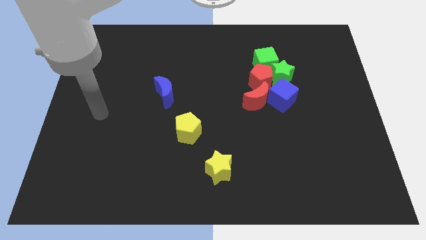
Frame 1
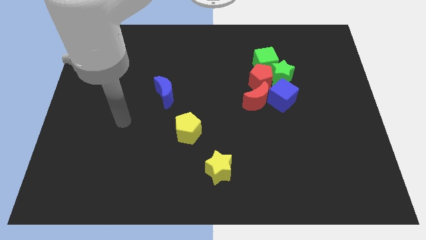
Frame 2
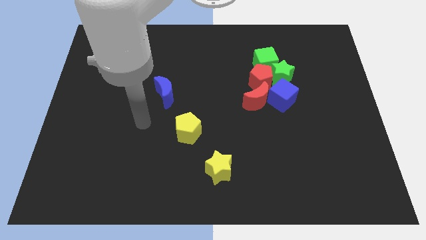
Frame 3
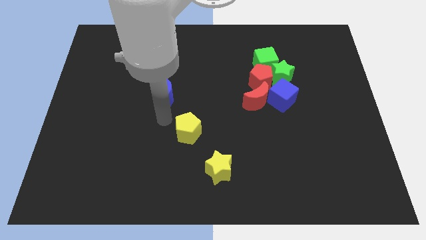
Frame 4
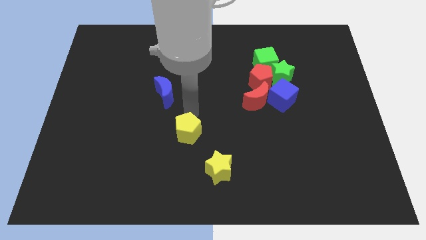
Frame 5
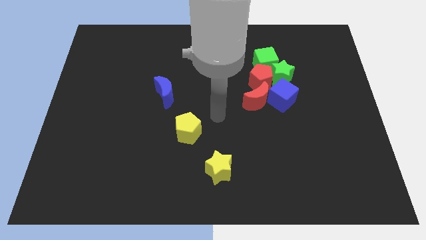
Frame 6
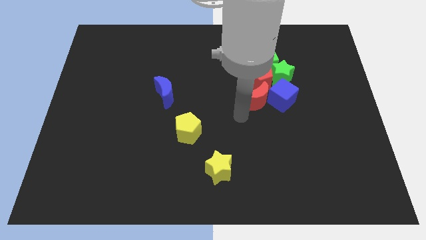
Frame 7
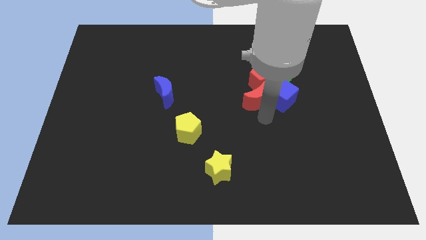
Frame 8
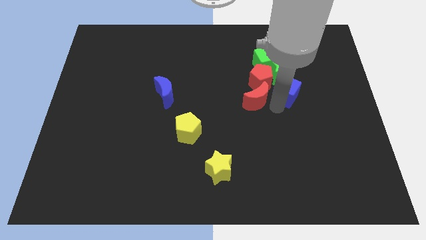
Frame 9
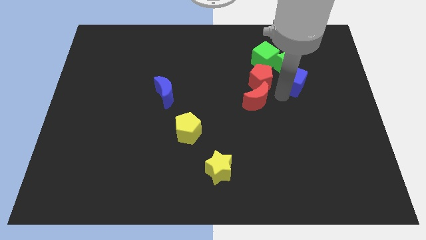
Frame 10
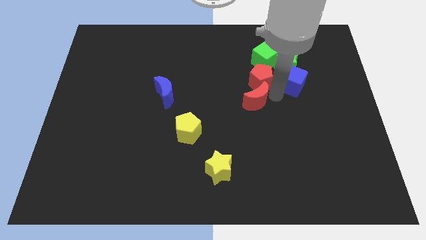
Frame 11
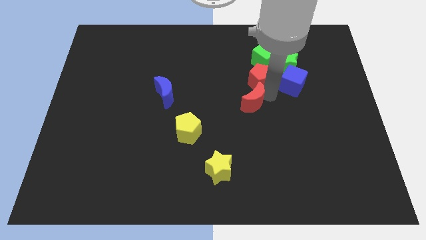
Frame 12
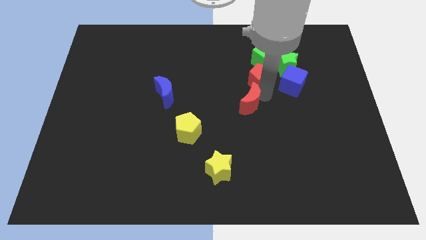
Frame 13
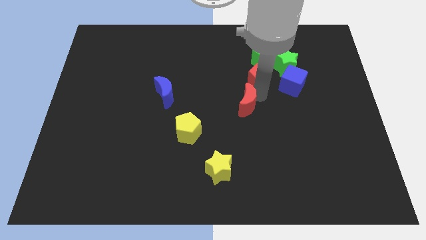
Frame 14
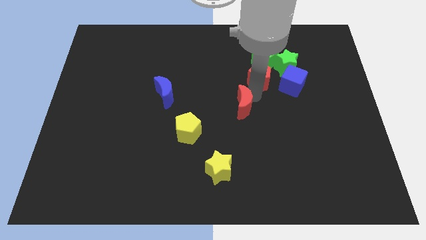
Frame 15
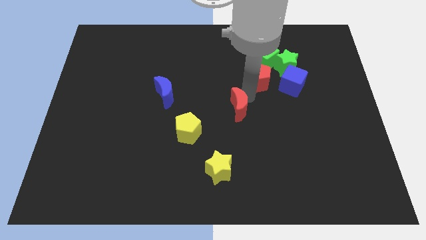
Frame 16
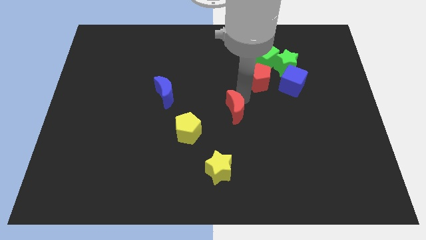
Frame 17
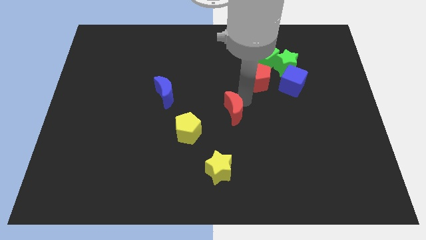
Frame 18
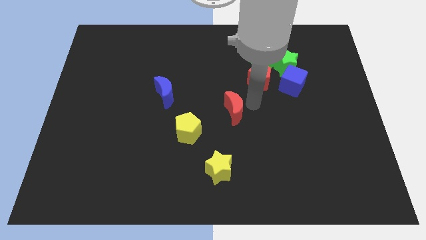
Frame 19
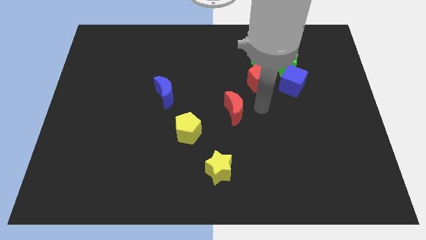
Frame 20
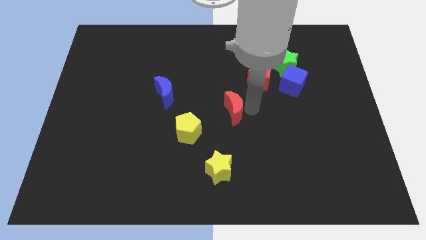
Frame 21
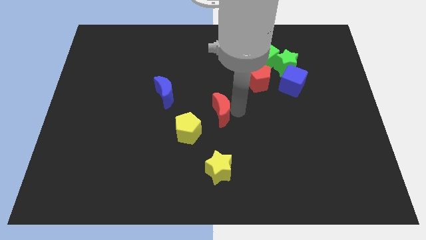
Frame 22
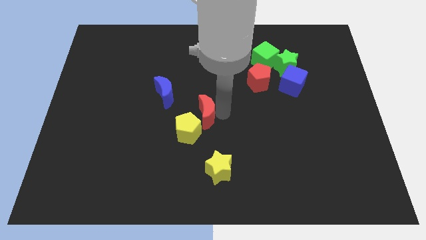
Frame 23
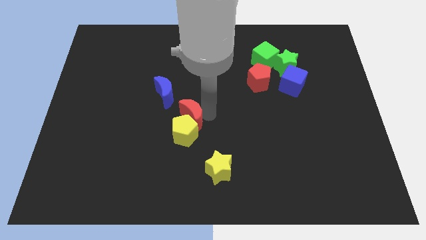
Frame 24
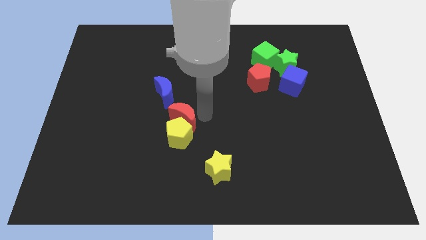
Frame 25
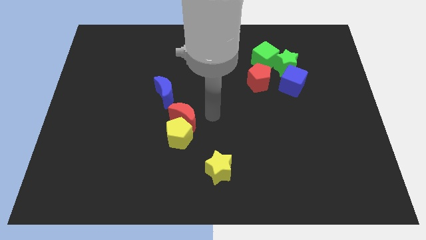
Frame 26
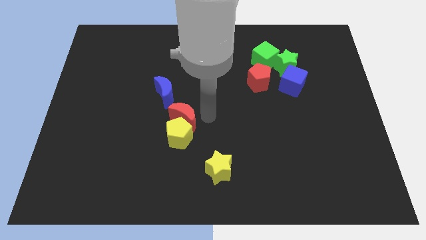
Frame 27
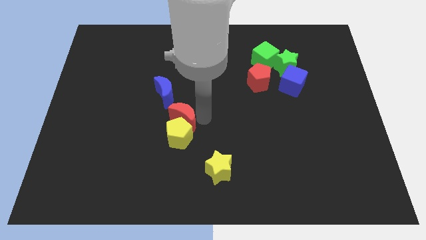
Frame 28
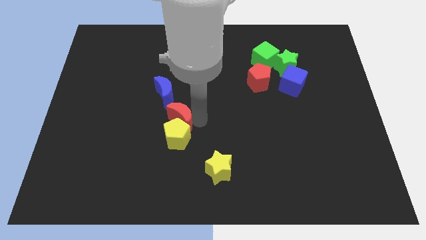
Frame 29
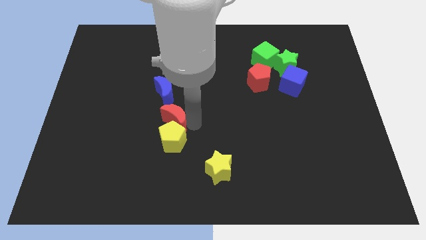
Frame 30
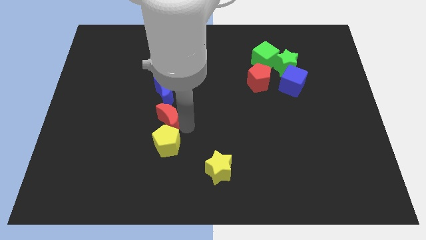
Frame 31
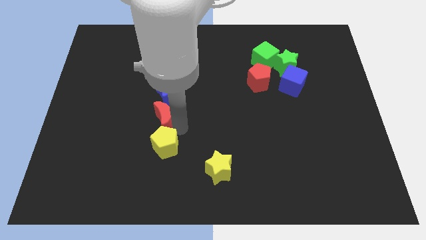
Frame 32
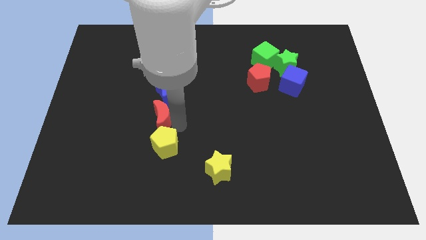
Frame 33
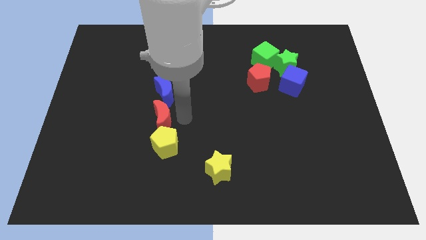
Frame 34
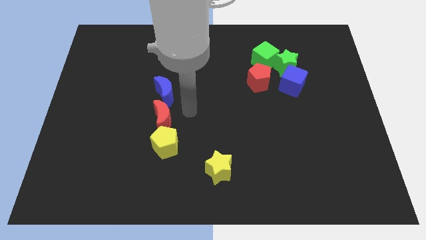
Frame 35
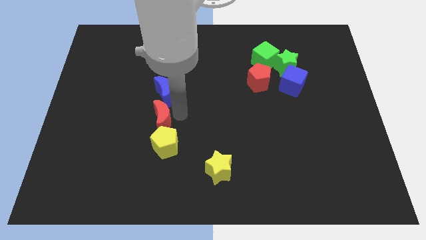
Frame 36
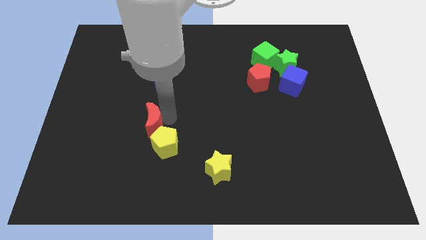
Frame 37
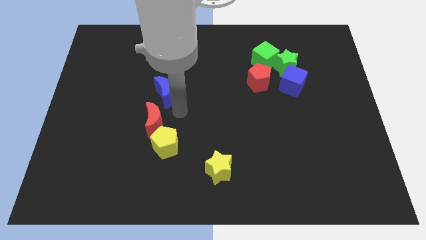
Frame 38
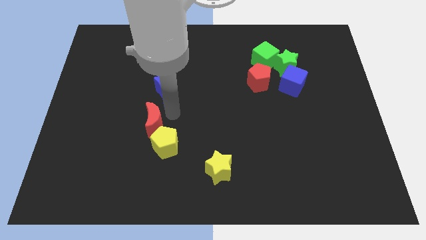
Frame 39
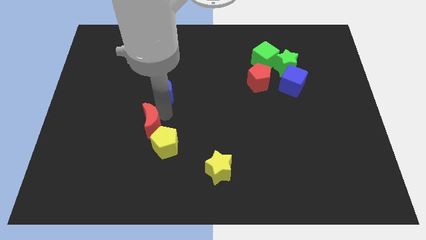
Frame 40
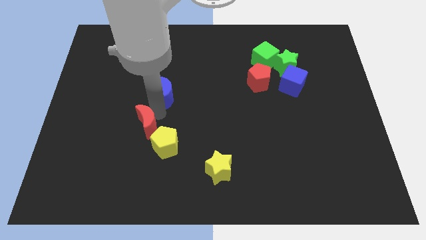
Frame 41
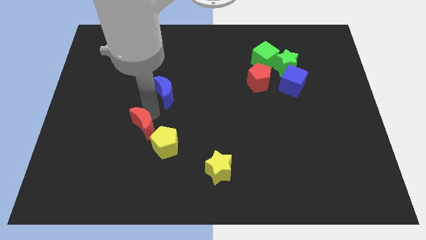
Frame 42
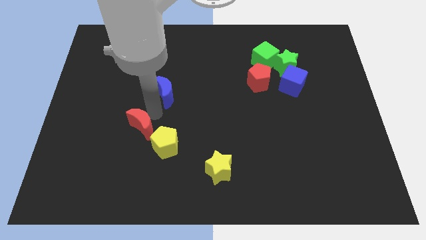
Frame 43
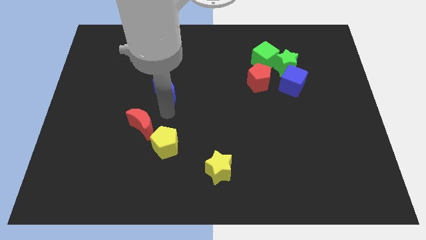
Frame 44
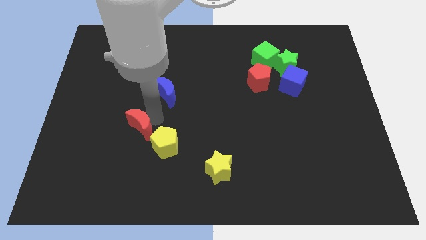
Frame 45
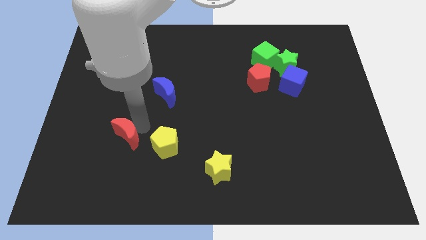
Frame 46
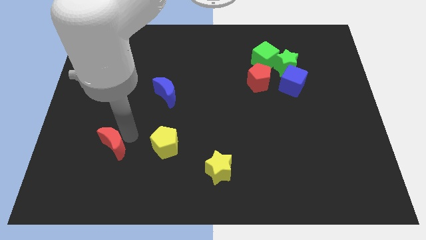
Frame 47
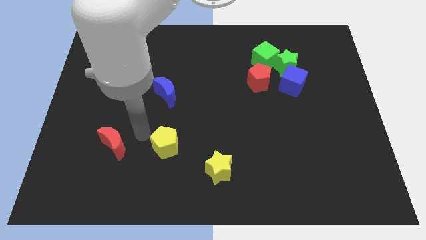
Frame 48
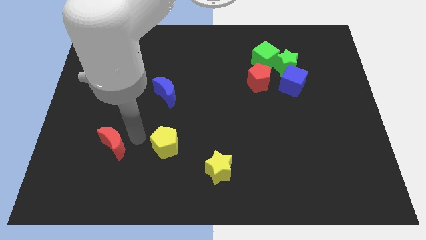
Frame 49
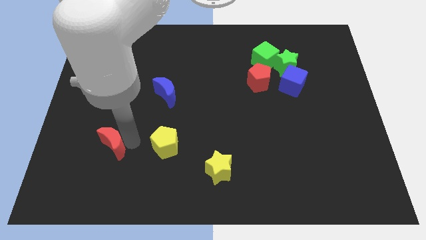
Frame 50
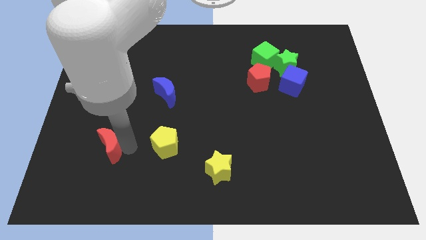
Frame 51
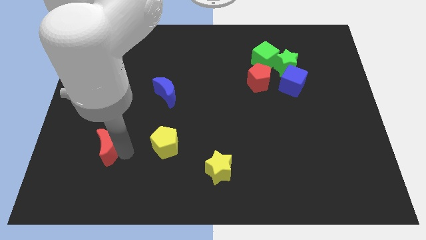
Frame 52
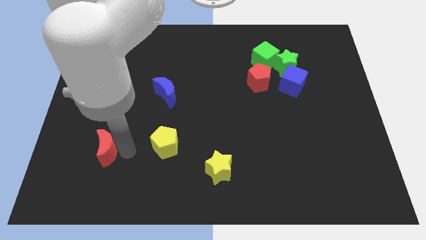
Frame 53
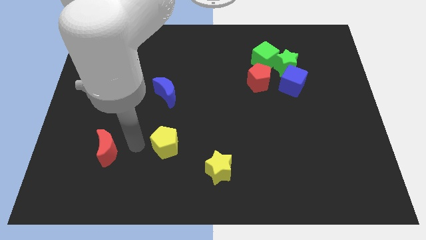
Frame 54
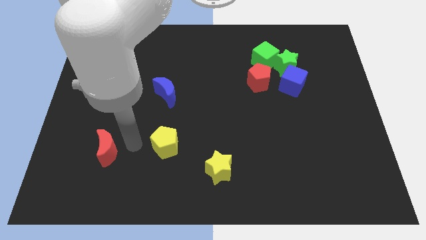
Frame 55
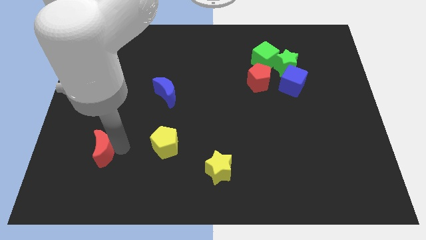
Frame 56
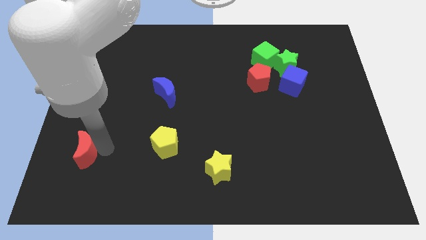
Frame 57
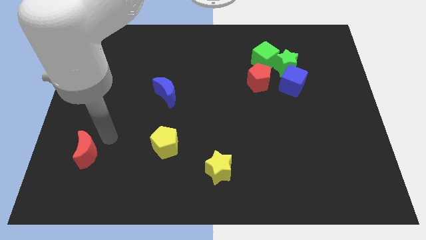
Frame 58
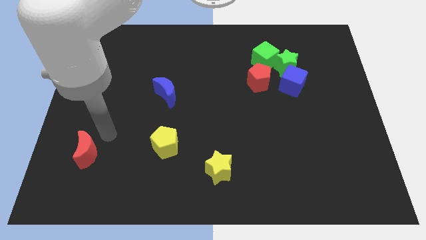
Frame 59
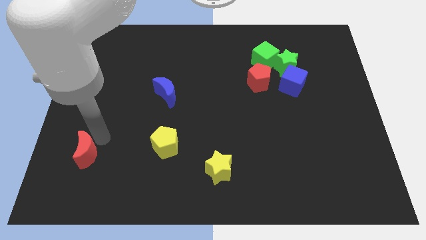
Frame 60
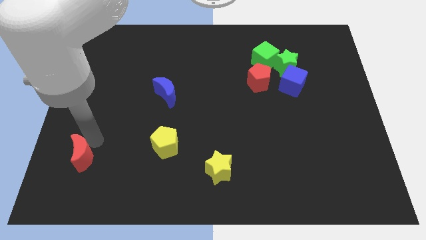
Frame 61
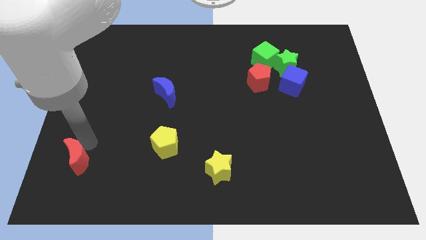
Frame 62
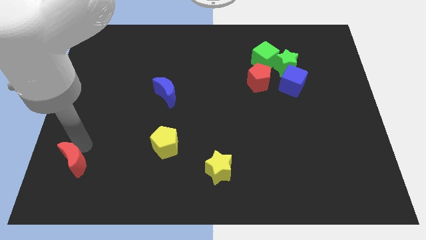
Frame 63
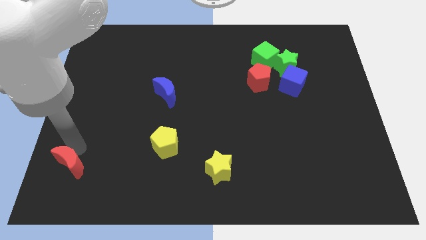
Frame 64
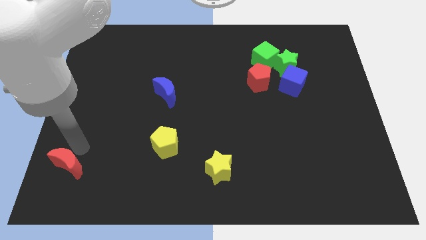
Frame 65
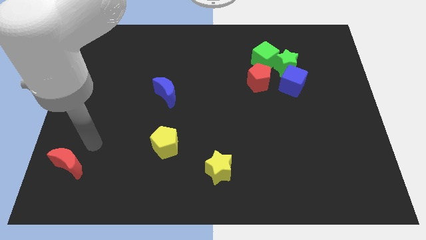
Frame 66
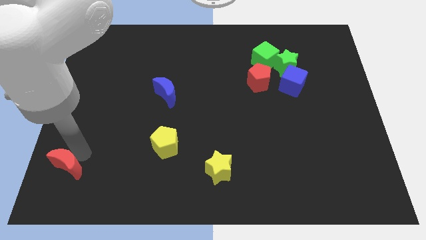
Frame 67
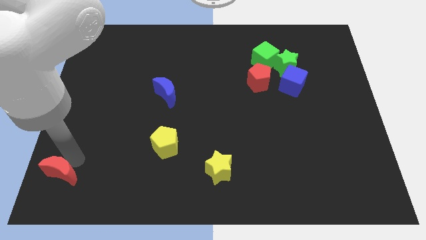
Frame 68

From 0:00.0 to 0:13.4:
move the red moon to the lower left corner

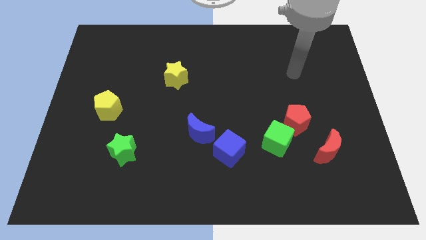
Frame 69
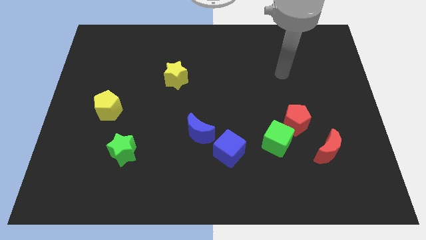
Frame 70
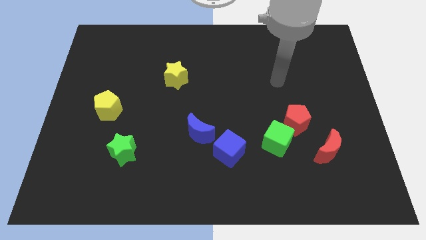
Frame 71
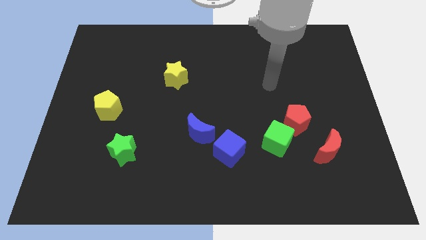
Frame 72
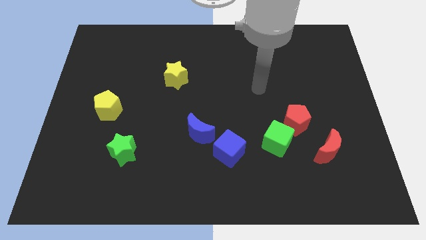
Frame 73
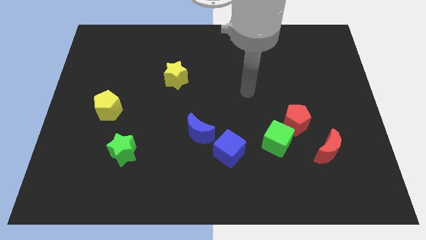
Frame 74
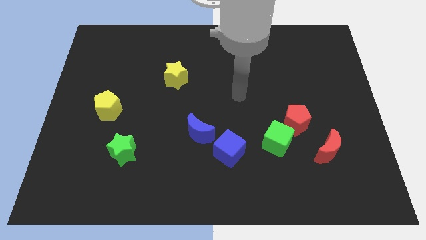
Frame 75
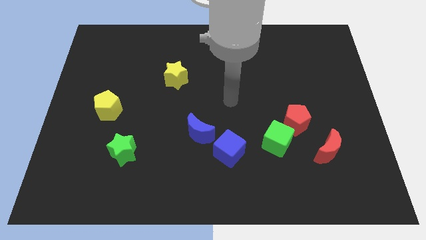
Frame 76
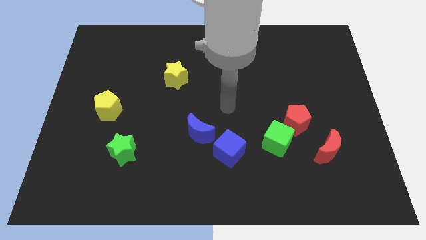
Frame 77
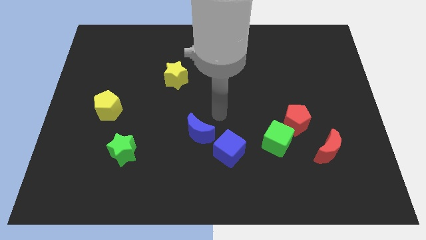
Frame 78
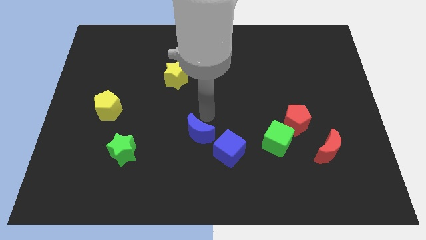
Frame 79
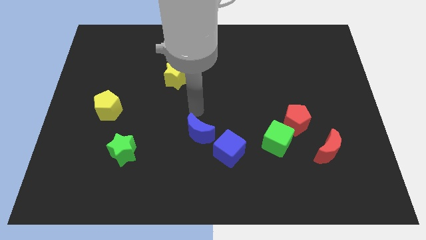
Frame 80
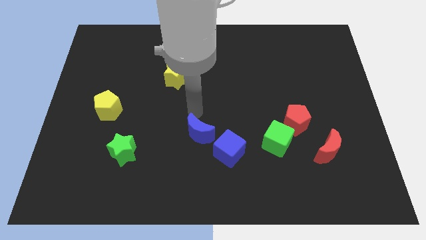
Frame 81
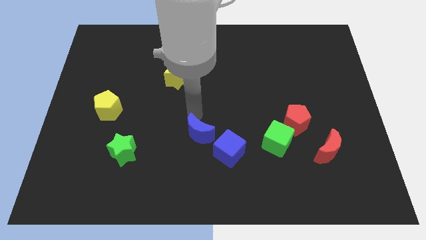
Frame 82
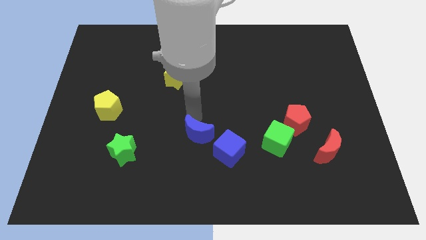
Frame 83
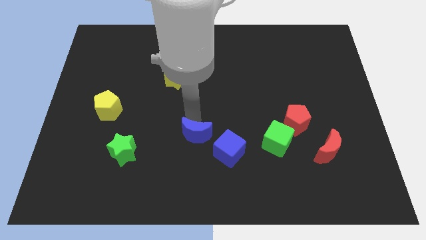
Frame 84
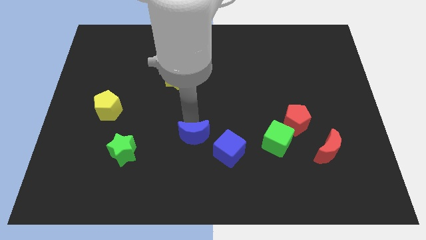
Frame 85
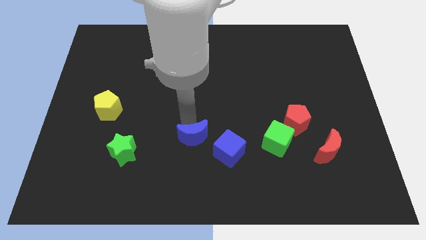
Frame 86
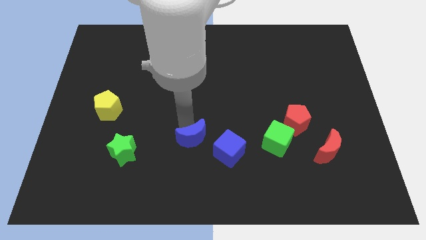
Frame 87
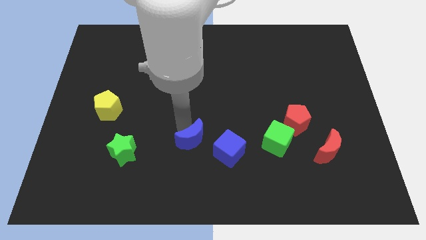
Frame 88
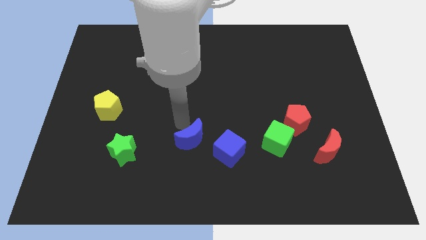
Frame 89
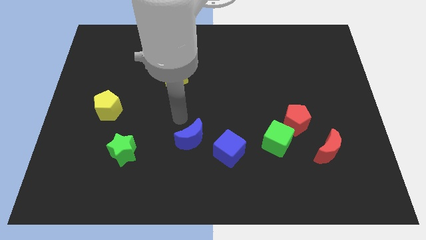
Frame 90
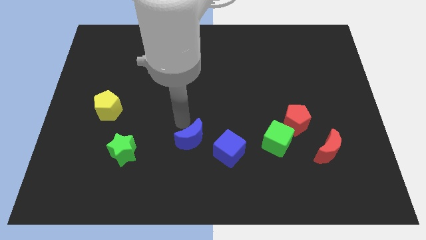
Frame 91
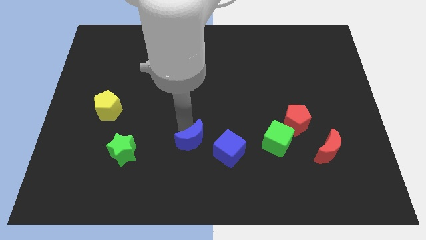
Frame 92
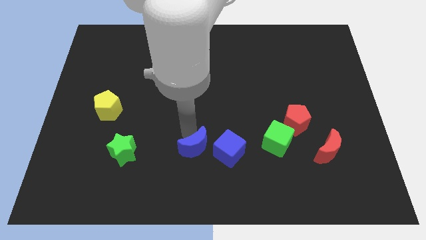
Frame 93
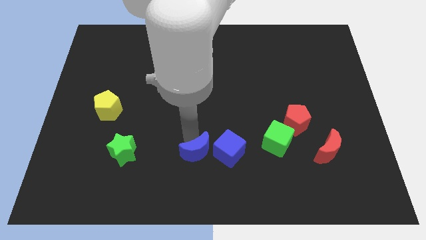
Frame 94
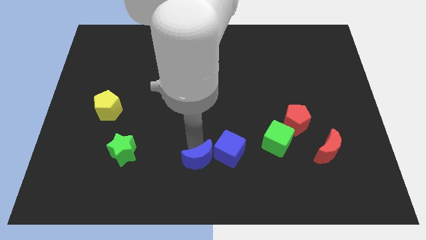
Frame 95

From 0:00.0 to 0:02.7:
move the blue moon to the bottom
